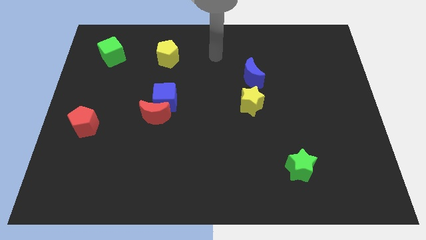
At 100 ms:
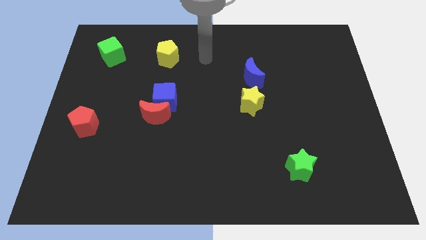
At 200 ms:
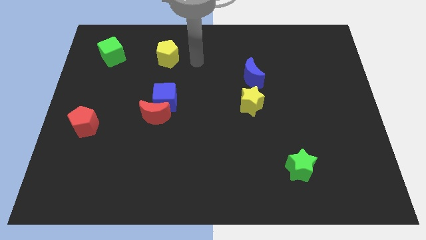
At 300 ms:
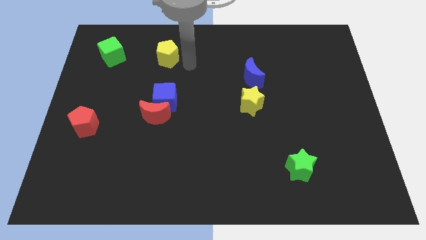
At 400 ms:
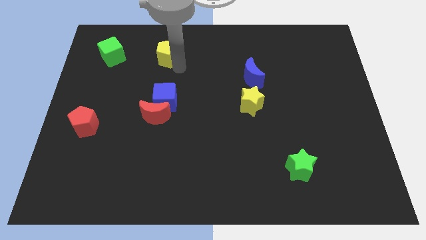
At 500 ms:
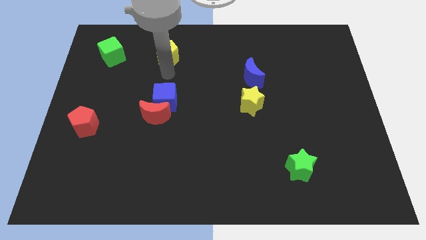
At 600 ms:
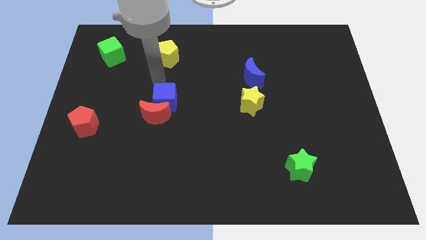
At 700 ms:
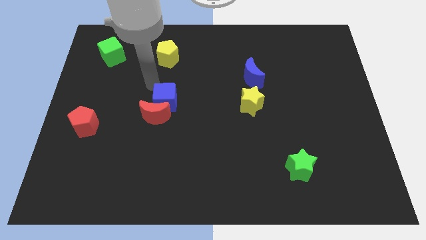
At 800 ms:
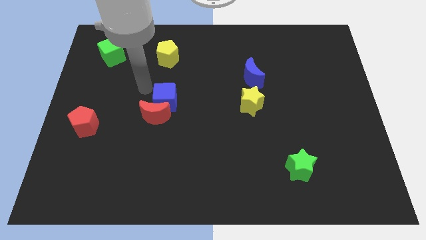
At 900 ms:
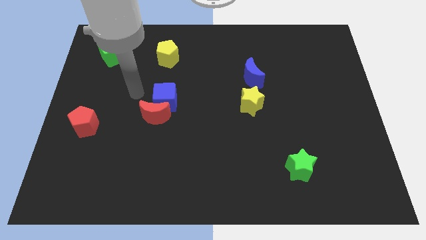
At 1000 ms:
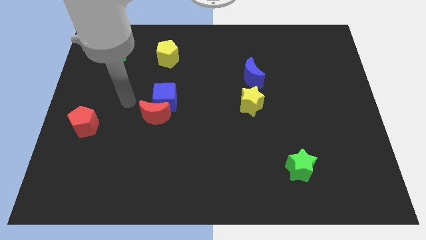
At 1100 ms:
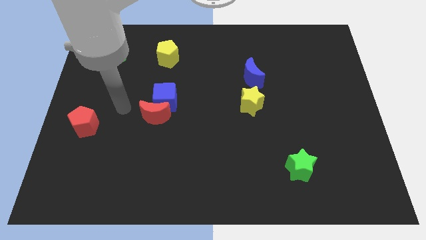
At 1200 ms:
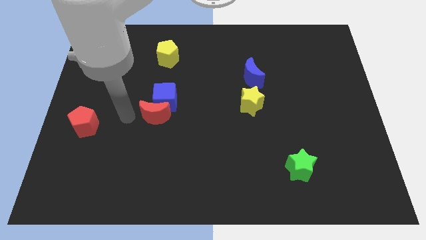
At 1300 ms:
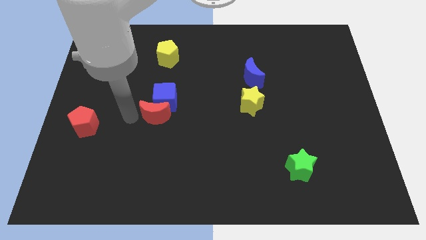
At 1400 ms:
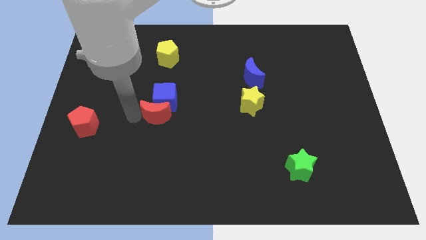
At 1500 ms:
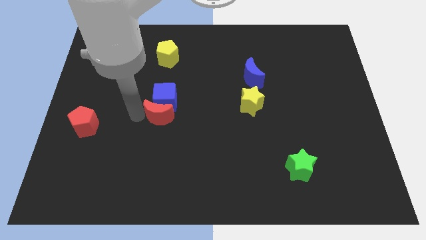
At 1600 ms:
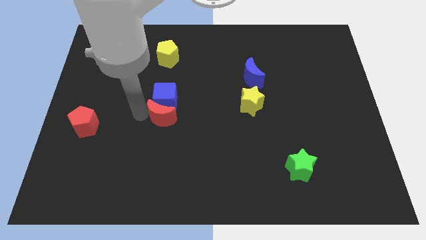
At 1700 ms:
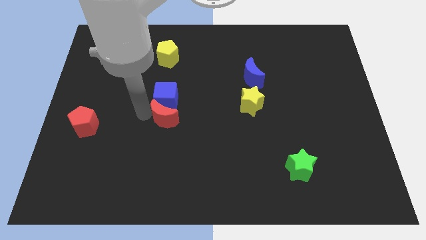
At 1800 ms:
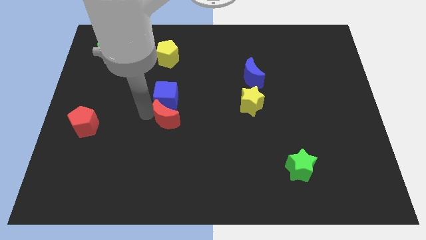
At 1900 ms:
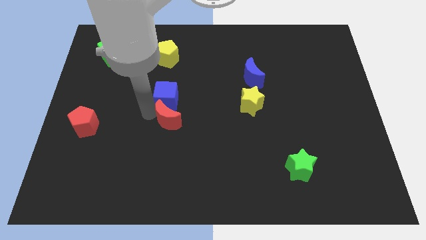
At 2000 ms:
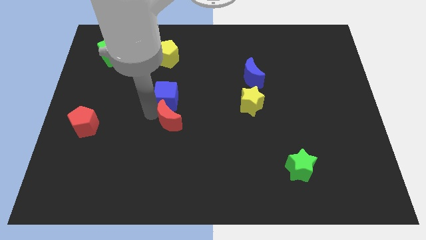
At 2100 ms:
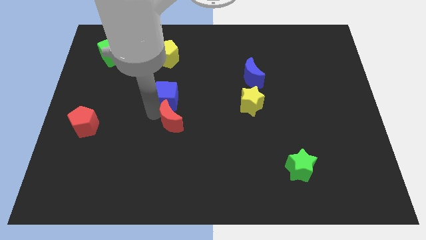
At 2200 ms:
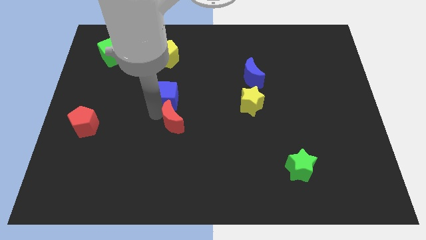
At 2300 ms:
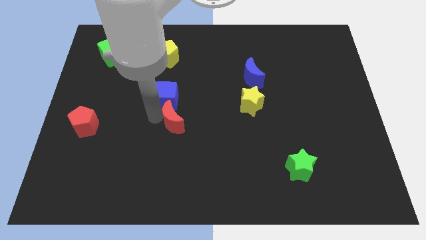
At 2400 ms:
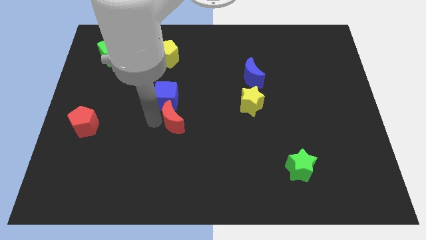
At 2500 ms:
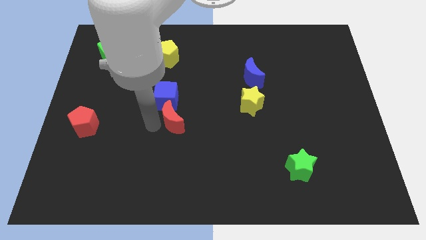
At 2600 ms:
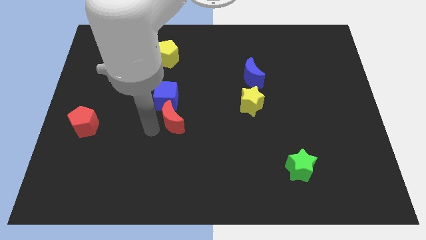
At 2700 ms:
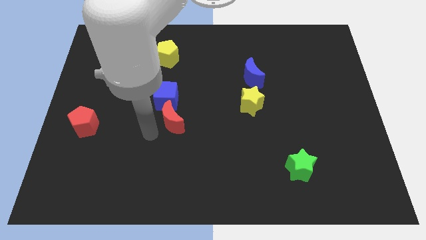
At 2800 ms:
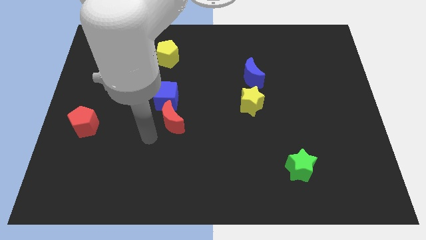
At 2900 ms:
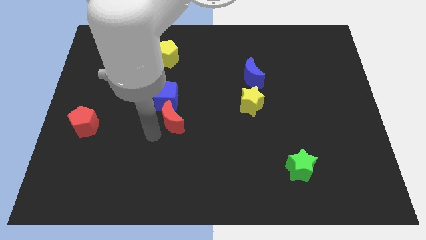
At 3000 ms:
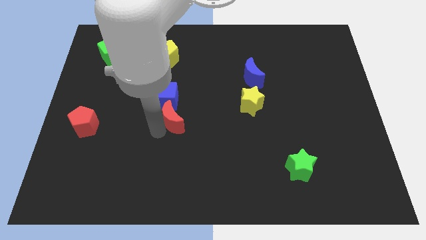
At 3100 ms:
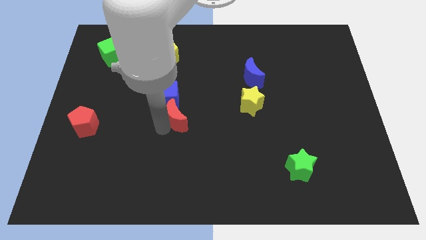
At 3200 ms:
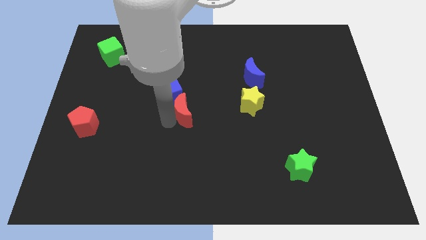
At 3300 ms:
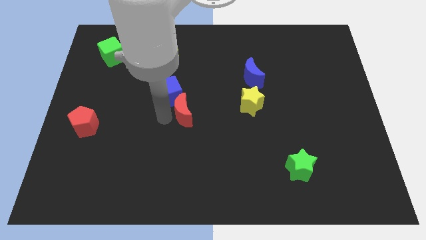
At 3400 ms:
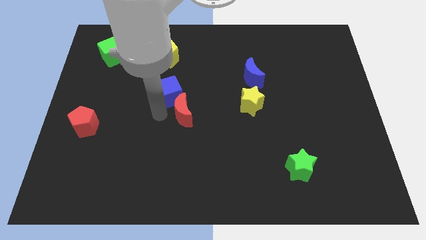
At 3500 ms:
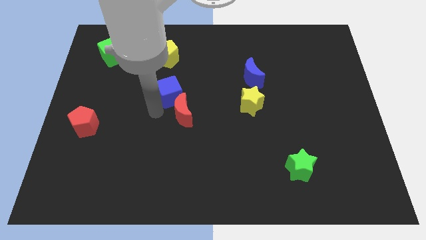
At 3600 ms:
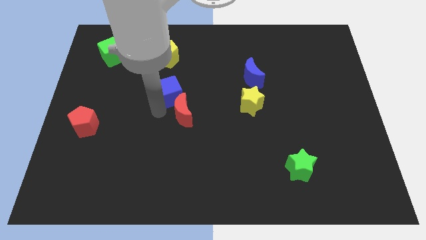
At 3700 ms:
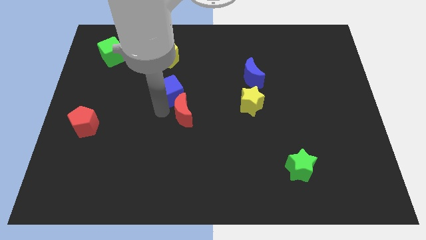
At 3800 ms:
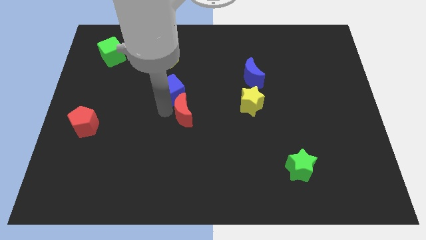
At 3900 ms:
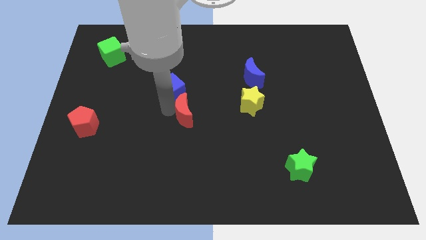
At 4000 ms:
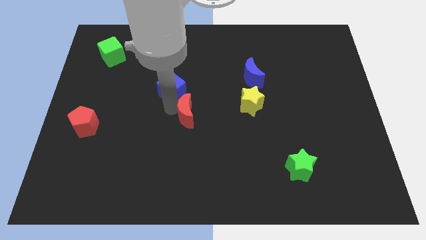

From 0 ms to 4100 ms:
push the red moon right somewhat

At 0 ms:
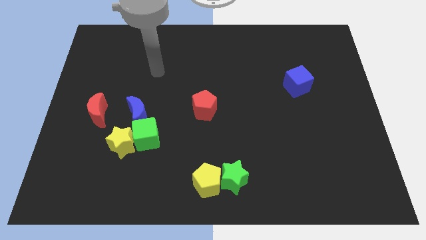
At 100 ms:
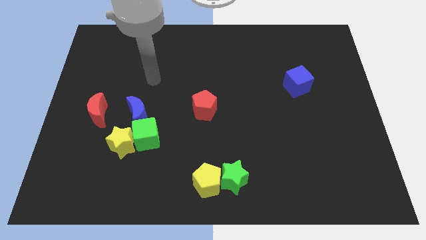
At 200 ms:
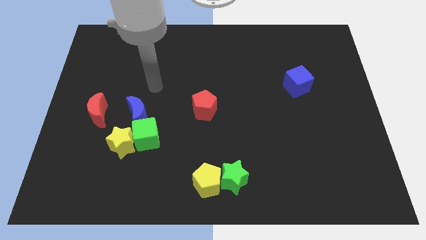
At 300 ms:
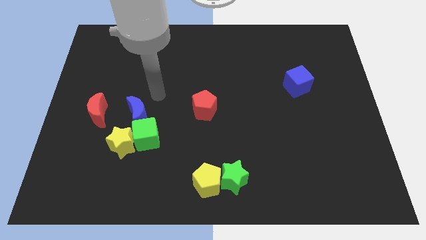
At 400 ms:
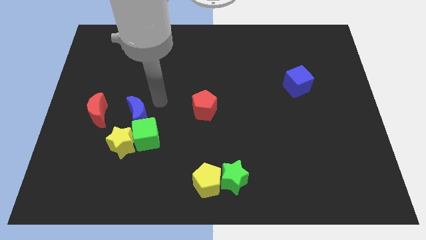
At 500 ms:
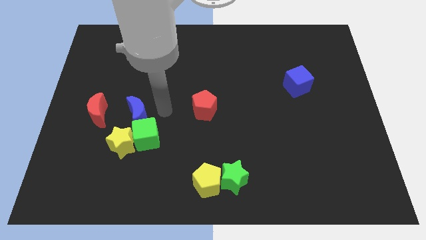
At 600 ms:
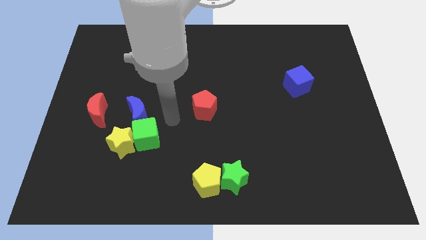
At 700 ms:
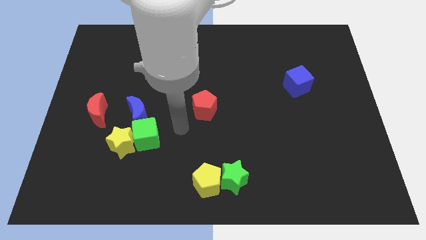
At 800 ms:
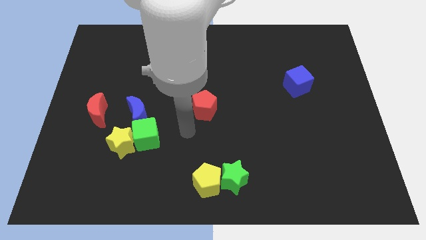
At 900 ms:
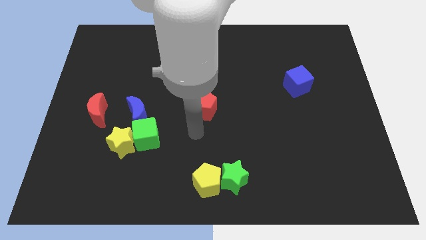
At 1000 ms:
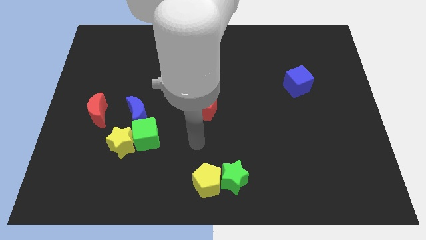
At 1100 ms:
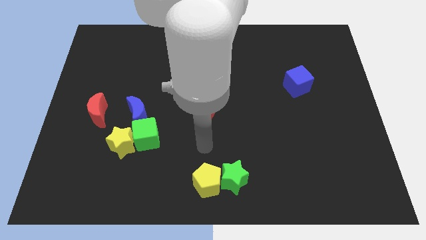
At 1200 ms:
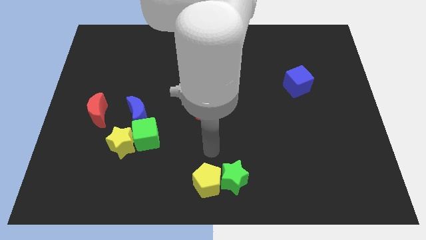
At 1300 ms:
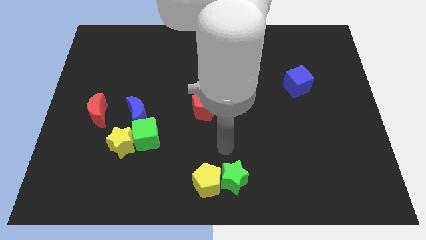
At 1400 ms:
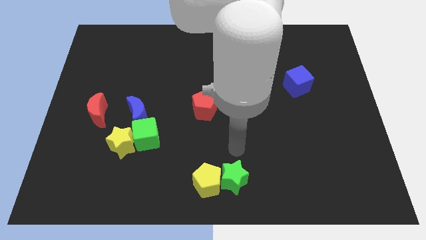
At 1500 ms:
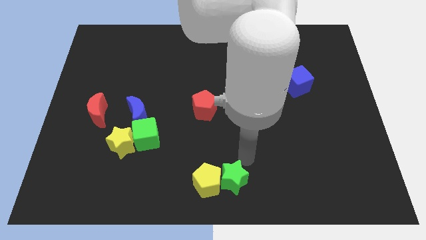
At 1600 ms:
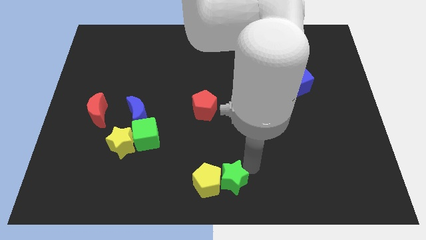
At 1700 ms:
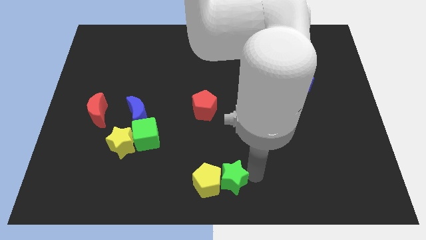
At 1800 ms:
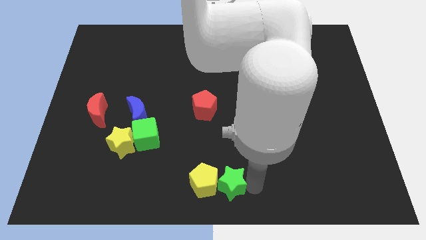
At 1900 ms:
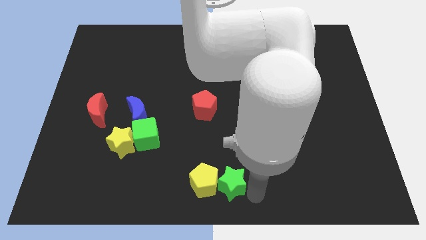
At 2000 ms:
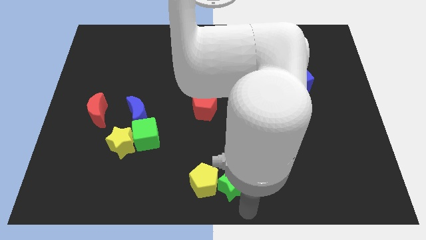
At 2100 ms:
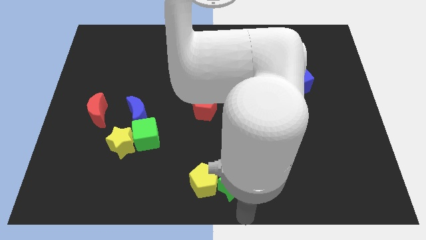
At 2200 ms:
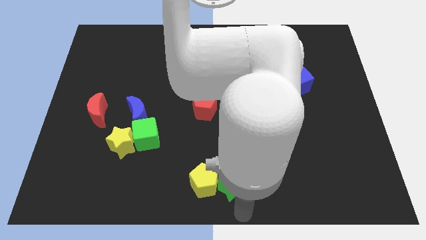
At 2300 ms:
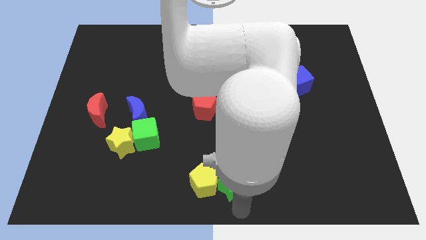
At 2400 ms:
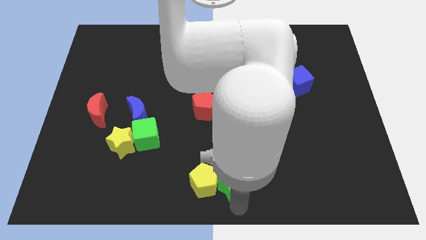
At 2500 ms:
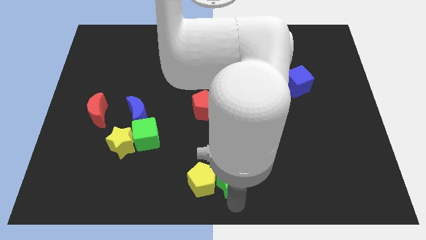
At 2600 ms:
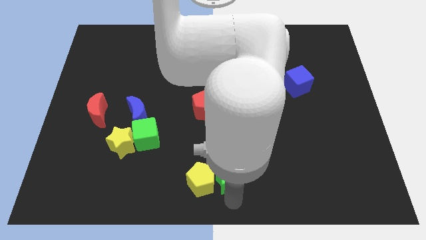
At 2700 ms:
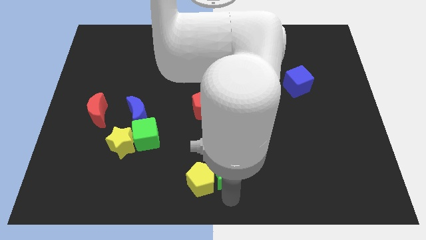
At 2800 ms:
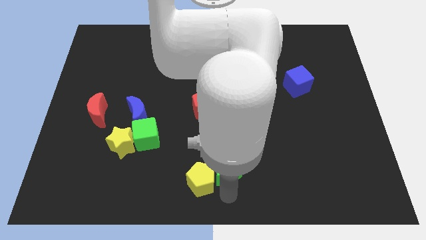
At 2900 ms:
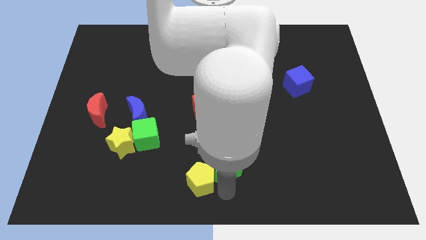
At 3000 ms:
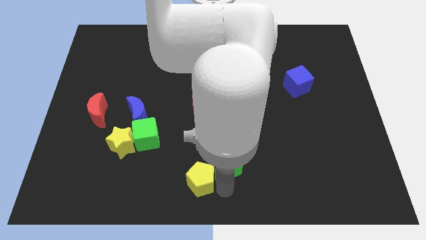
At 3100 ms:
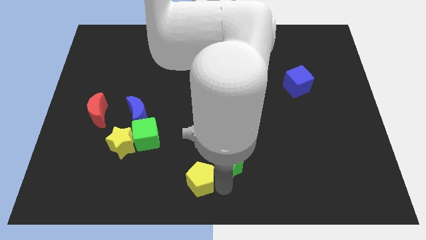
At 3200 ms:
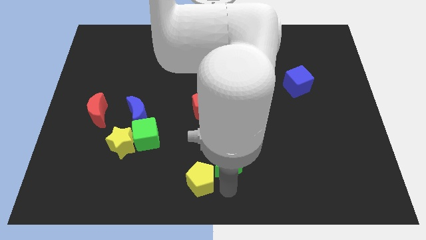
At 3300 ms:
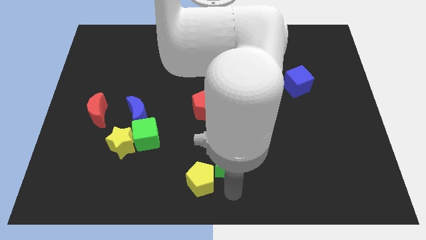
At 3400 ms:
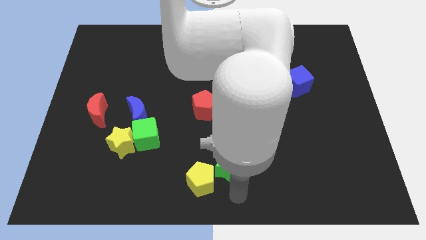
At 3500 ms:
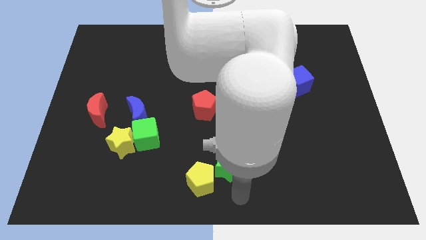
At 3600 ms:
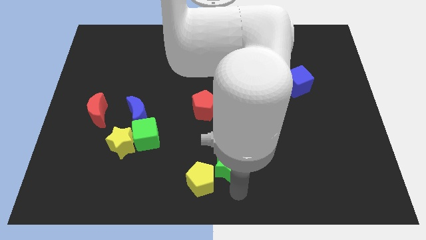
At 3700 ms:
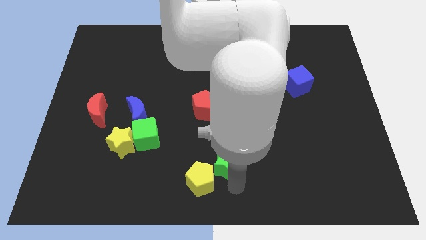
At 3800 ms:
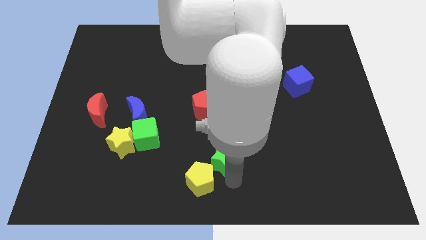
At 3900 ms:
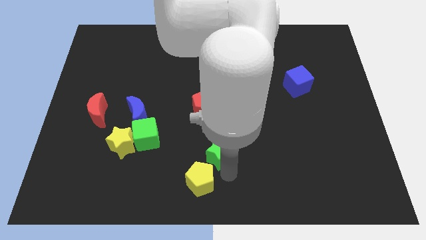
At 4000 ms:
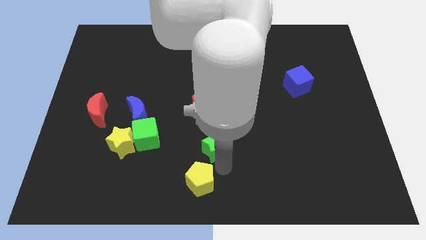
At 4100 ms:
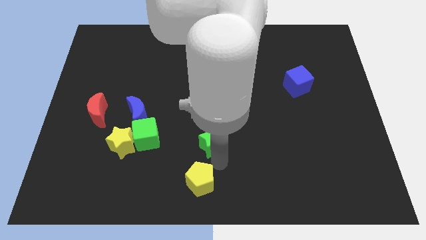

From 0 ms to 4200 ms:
slide the green star up a little bit

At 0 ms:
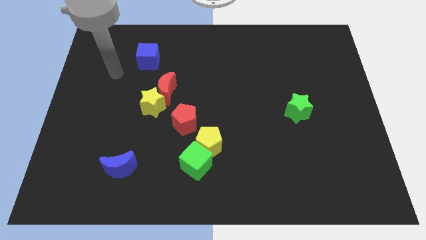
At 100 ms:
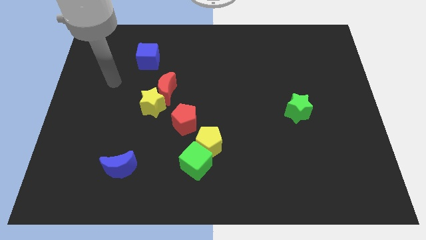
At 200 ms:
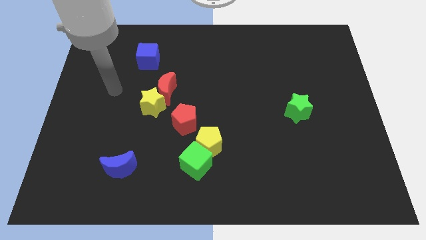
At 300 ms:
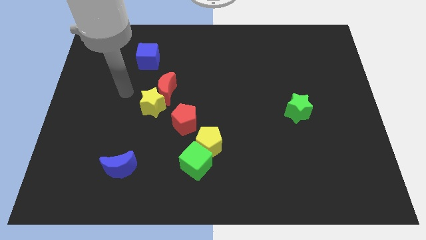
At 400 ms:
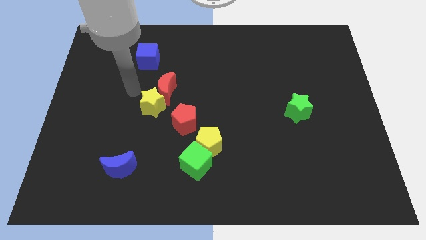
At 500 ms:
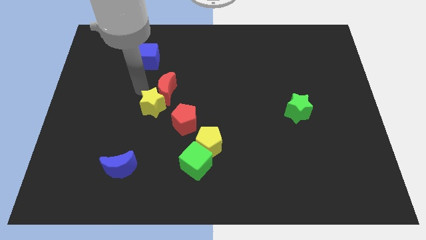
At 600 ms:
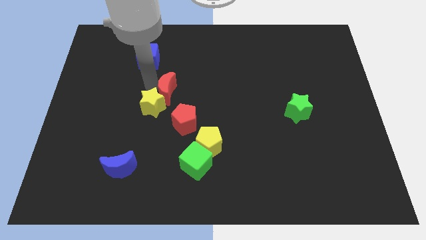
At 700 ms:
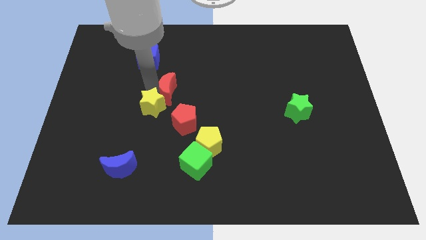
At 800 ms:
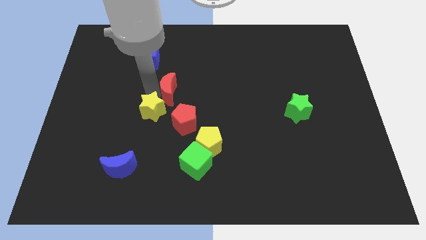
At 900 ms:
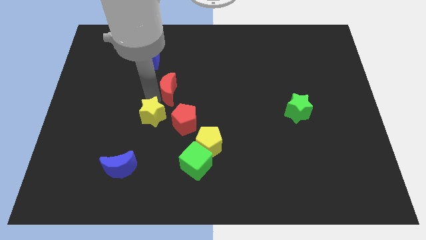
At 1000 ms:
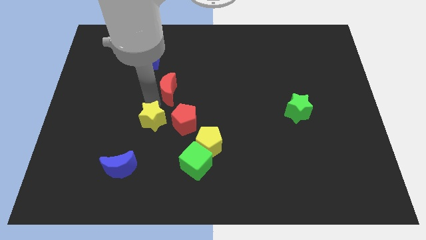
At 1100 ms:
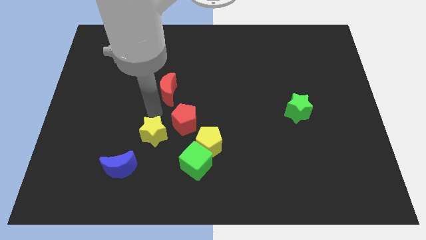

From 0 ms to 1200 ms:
slightly push the yellow star downwards
